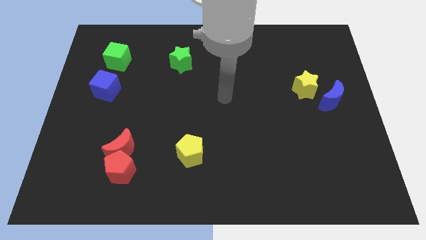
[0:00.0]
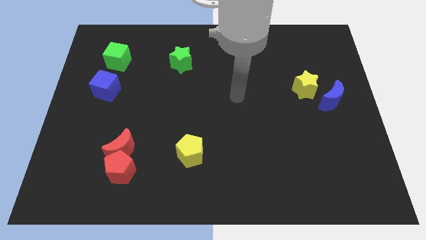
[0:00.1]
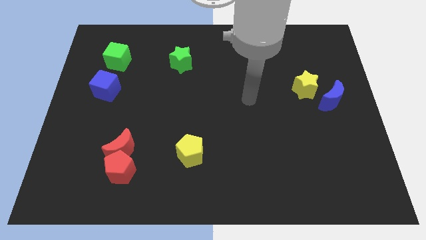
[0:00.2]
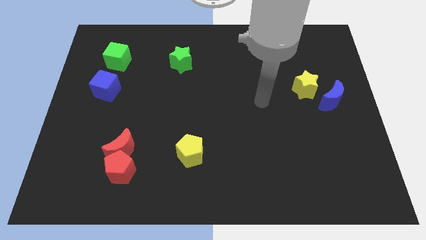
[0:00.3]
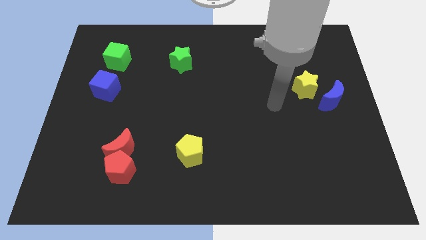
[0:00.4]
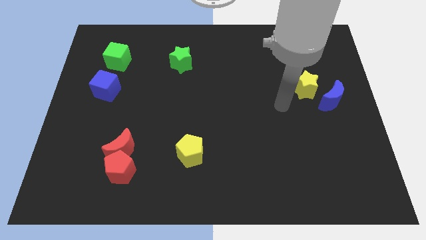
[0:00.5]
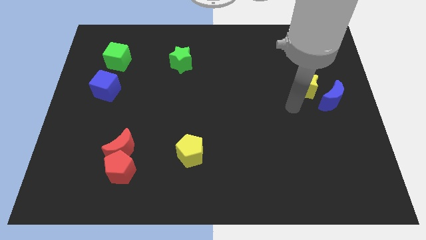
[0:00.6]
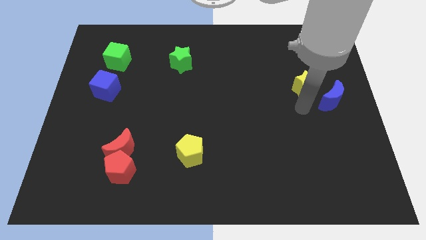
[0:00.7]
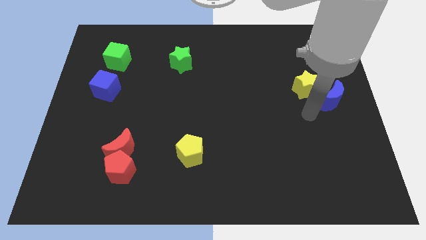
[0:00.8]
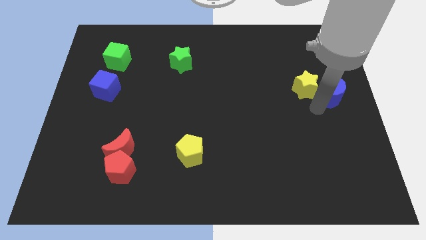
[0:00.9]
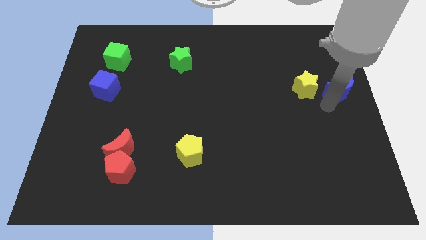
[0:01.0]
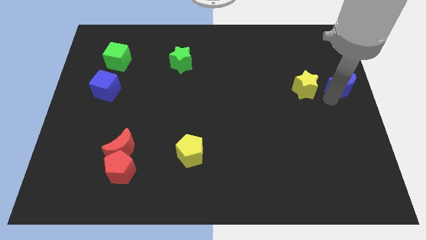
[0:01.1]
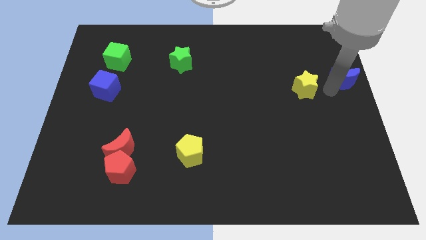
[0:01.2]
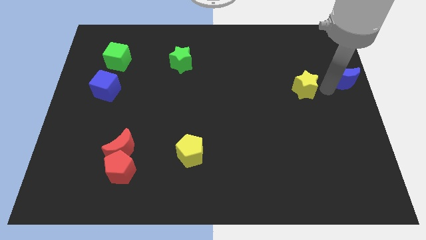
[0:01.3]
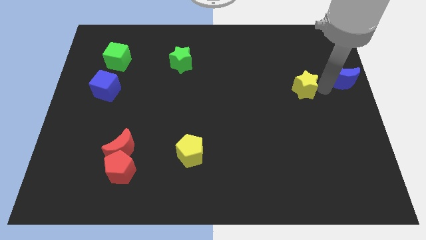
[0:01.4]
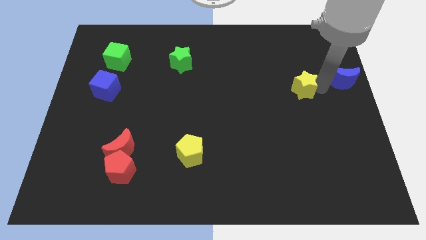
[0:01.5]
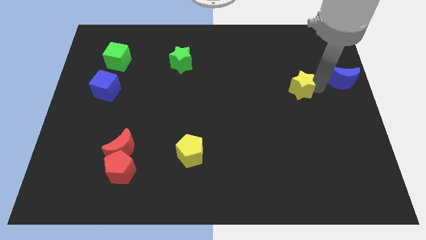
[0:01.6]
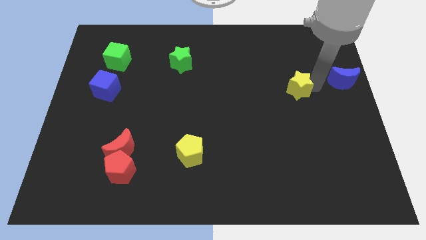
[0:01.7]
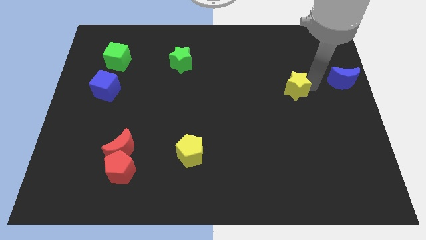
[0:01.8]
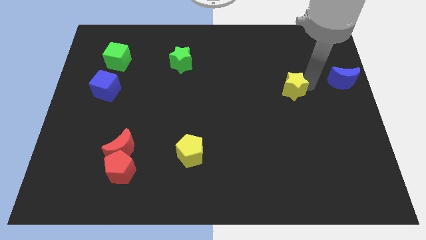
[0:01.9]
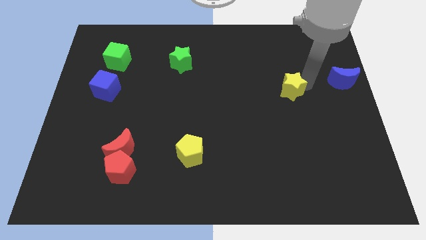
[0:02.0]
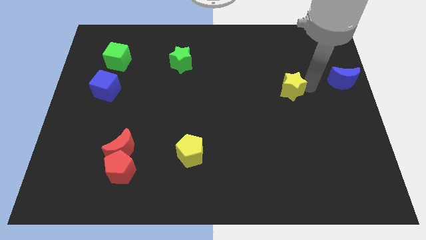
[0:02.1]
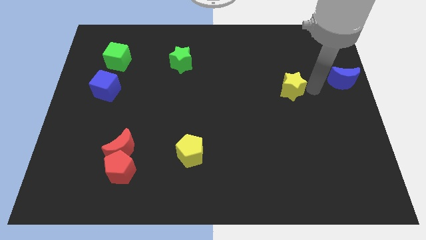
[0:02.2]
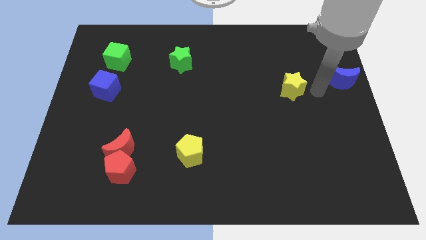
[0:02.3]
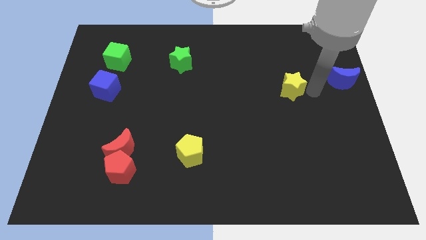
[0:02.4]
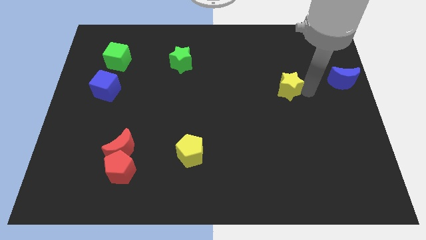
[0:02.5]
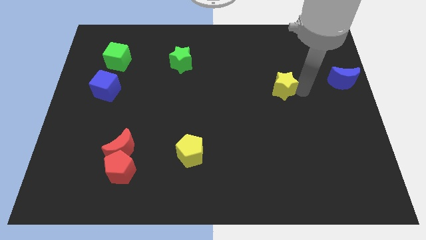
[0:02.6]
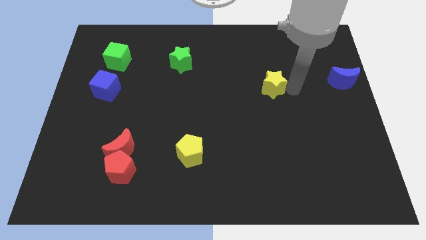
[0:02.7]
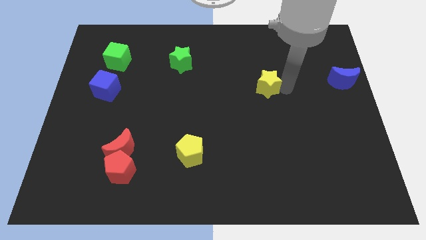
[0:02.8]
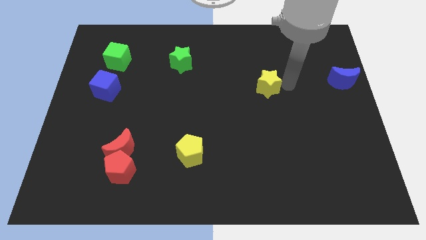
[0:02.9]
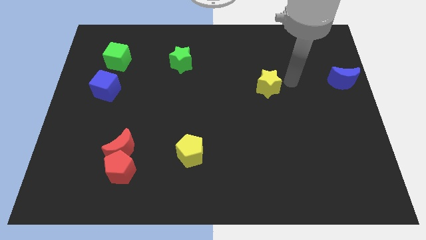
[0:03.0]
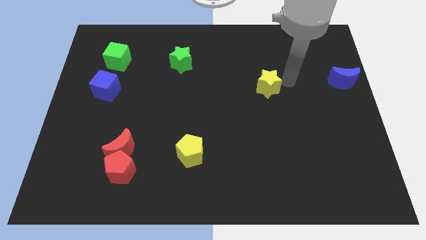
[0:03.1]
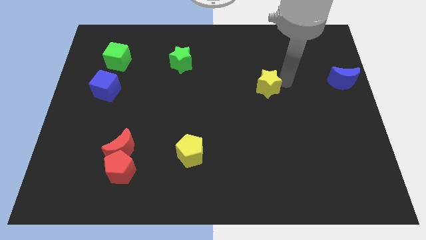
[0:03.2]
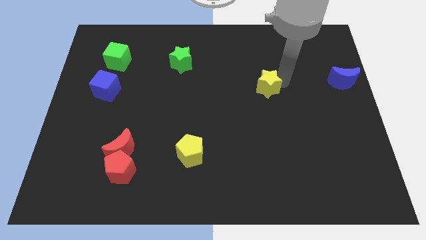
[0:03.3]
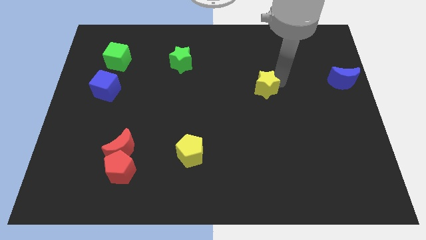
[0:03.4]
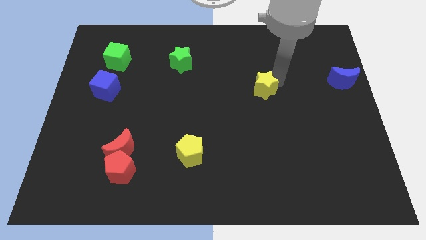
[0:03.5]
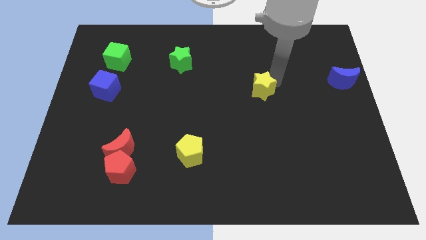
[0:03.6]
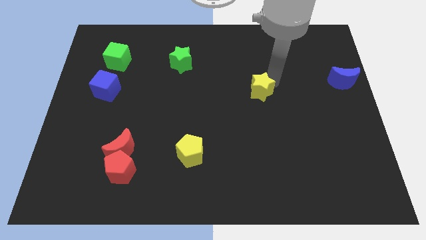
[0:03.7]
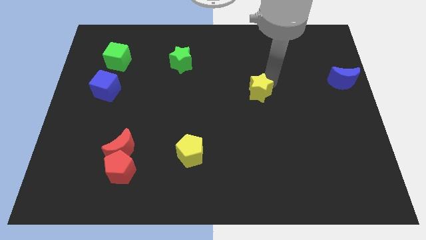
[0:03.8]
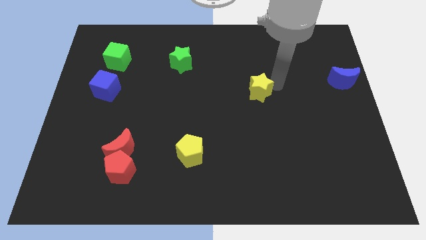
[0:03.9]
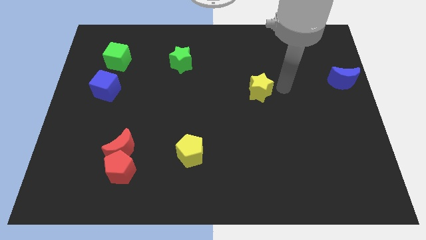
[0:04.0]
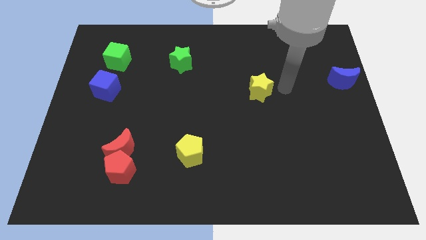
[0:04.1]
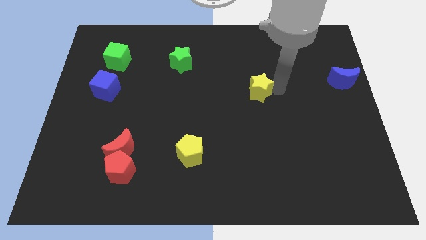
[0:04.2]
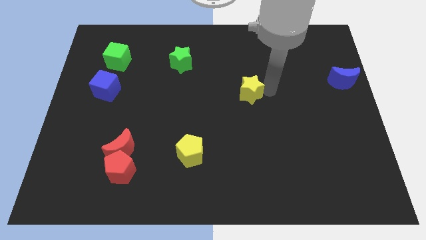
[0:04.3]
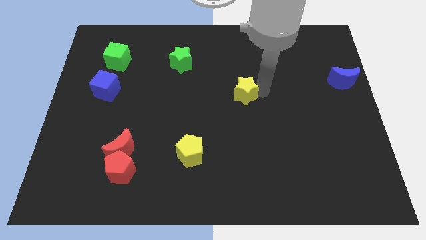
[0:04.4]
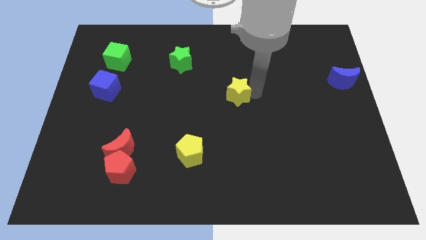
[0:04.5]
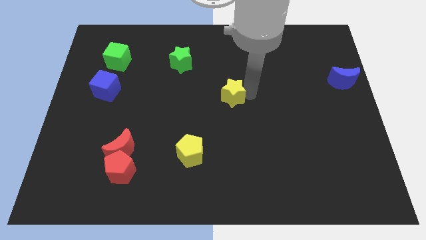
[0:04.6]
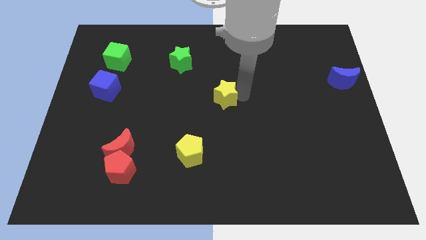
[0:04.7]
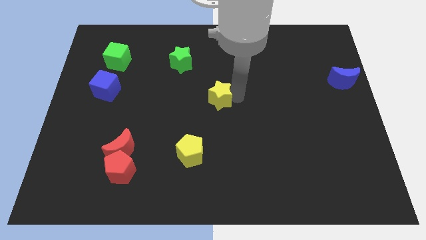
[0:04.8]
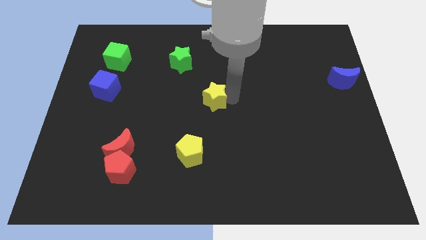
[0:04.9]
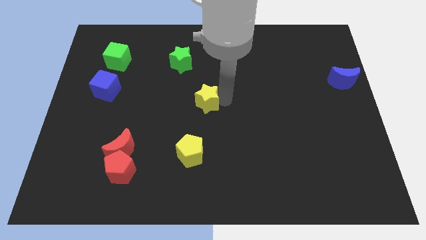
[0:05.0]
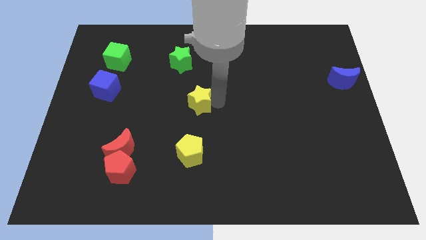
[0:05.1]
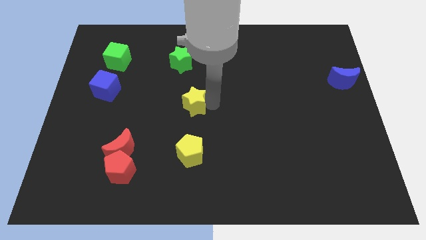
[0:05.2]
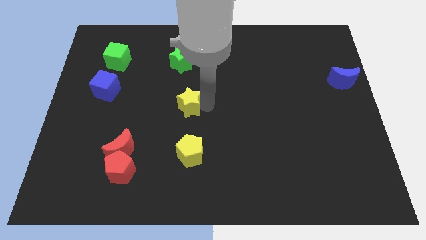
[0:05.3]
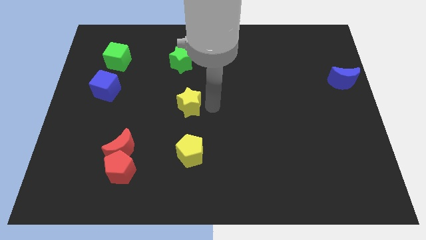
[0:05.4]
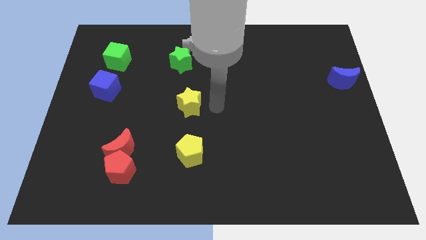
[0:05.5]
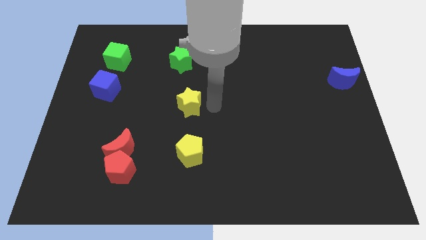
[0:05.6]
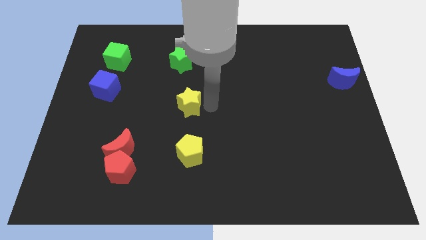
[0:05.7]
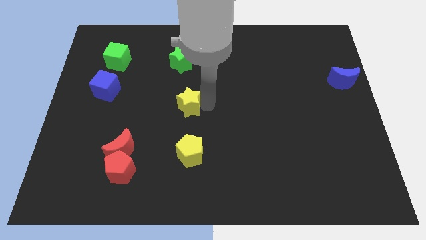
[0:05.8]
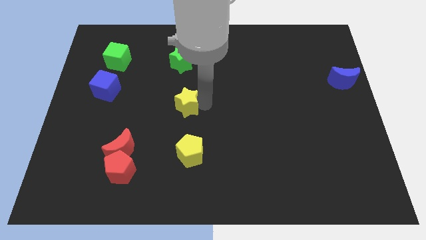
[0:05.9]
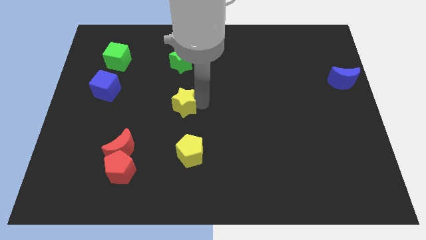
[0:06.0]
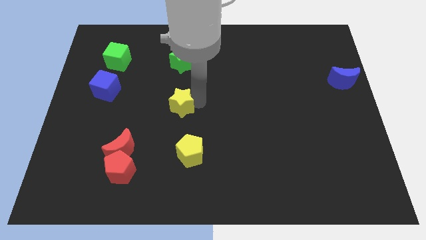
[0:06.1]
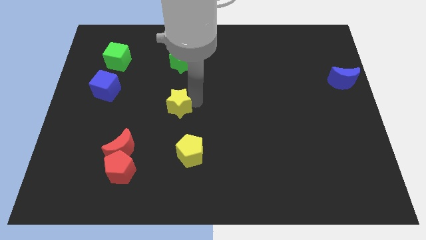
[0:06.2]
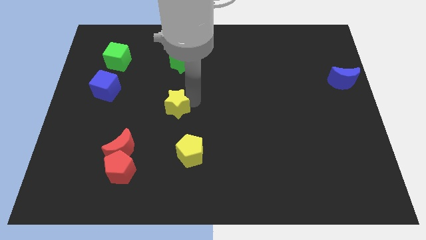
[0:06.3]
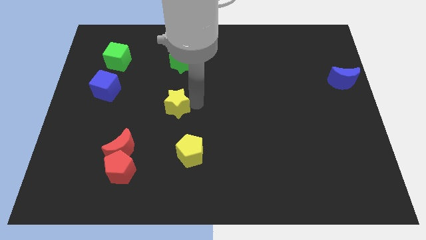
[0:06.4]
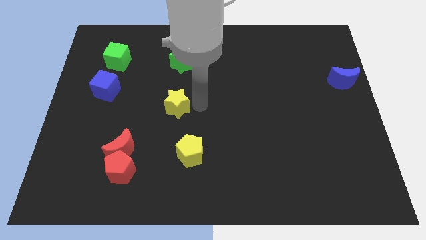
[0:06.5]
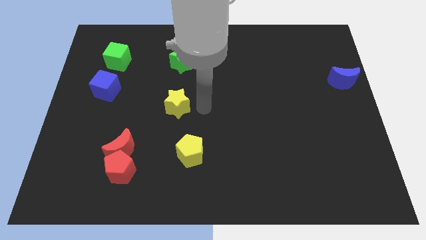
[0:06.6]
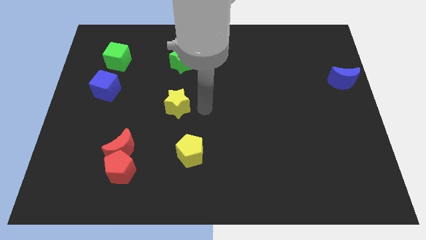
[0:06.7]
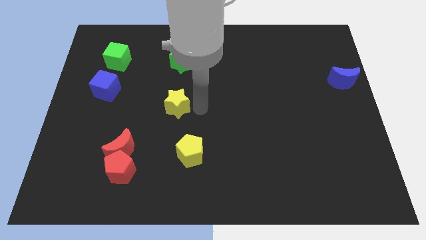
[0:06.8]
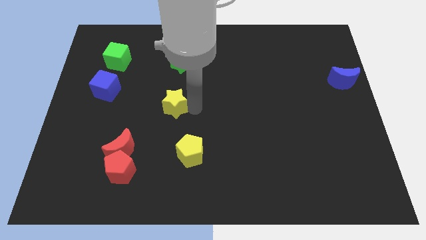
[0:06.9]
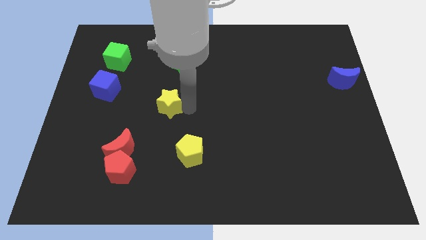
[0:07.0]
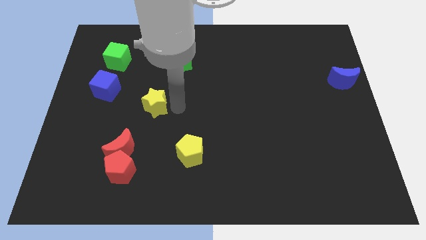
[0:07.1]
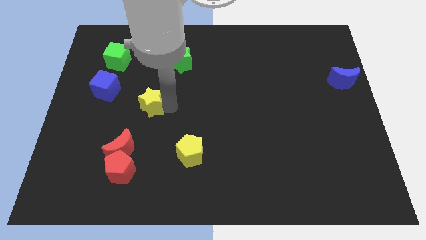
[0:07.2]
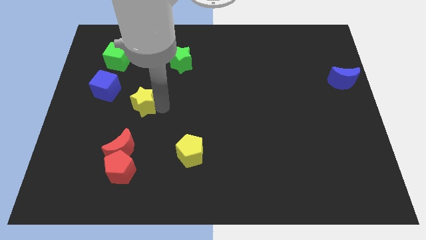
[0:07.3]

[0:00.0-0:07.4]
move the yellow star diagonally down and to the right of the blue cube
